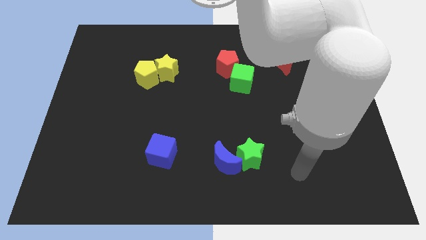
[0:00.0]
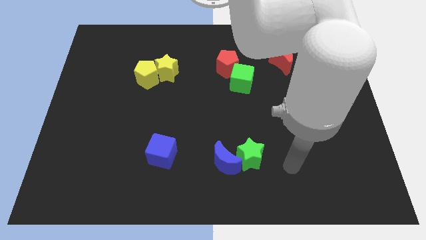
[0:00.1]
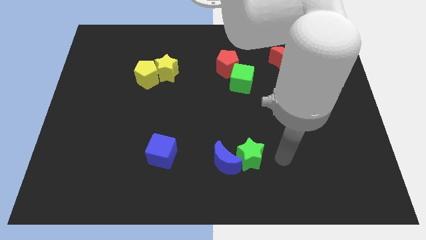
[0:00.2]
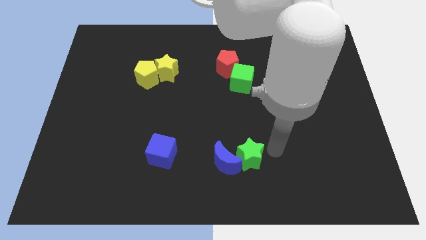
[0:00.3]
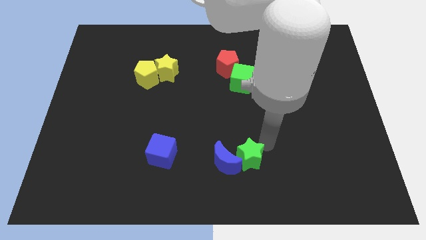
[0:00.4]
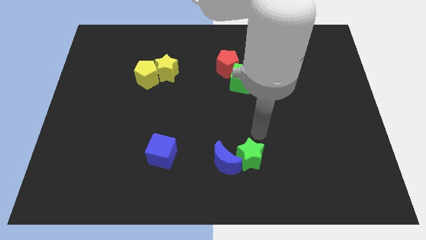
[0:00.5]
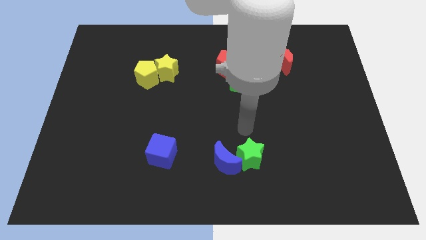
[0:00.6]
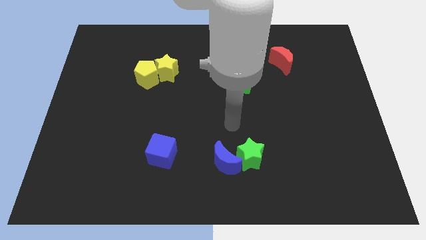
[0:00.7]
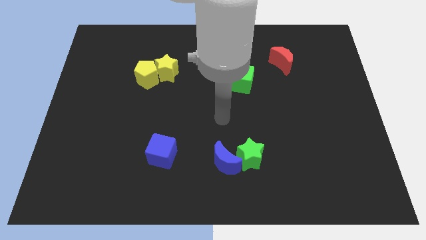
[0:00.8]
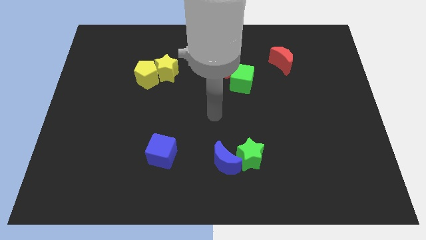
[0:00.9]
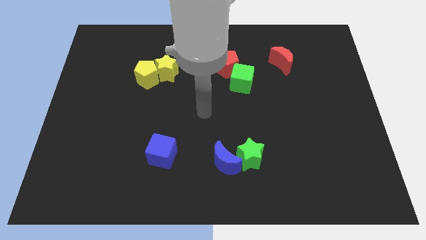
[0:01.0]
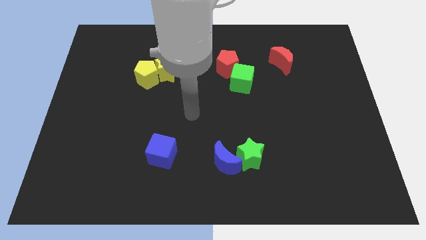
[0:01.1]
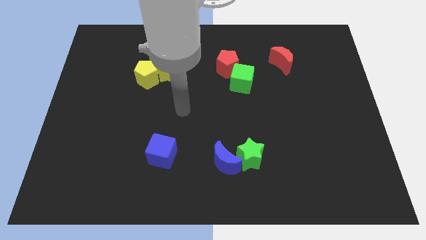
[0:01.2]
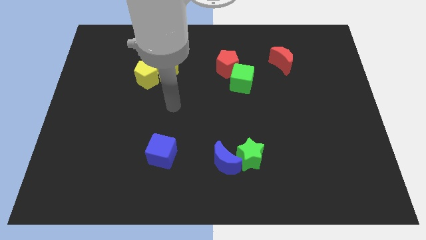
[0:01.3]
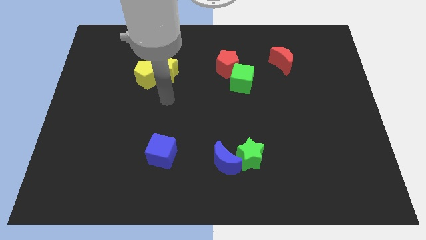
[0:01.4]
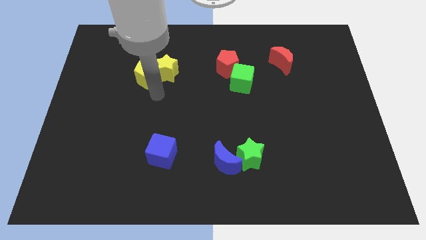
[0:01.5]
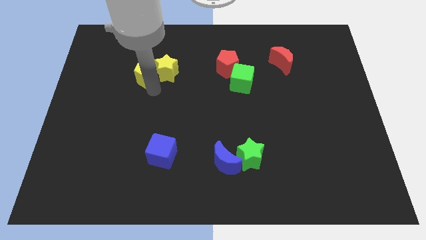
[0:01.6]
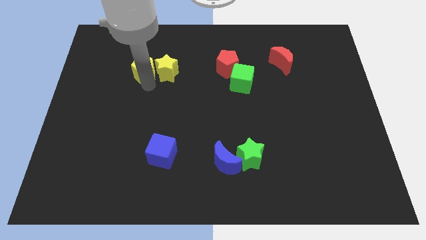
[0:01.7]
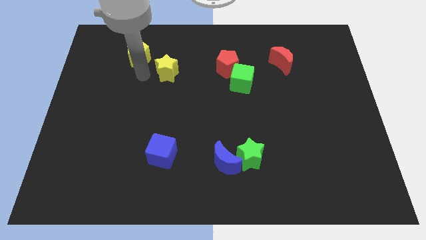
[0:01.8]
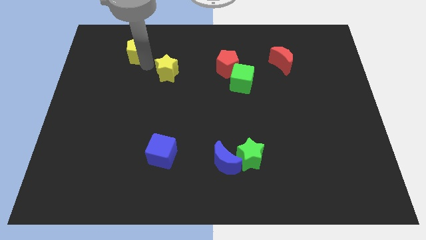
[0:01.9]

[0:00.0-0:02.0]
pull the yellow star apart from the yellow pentagon

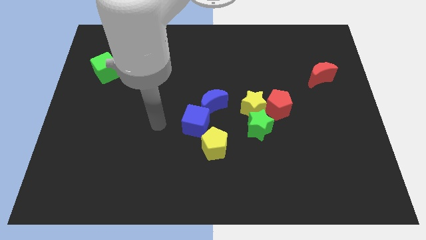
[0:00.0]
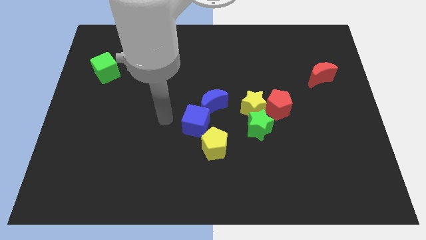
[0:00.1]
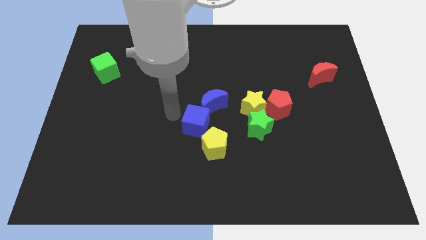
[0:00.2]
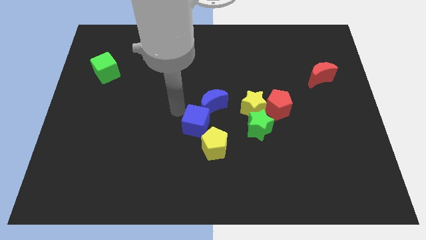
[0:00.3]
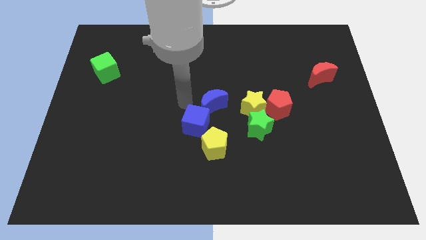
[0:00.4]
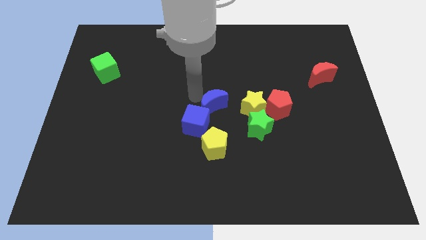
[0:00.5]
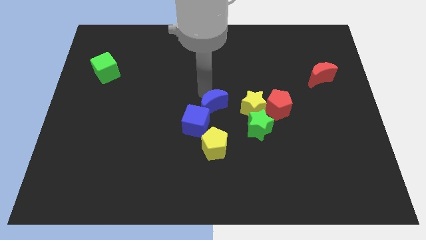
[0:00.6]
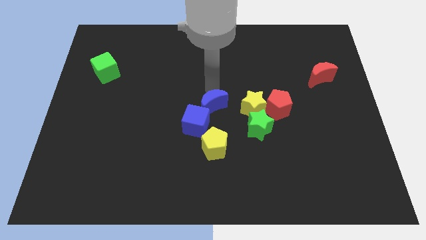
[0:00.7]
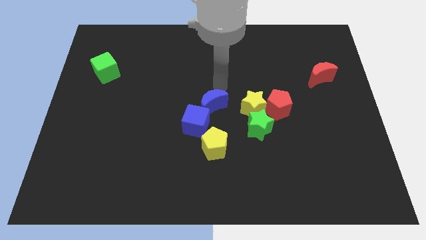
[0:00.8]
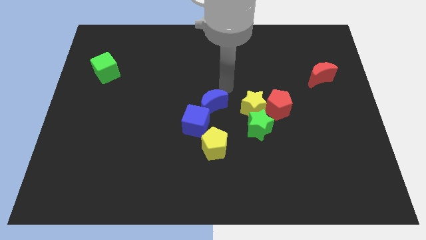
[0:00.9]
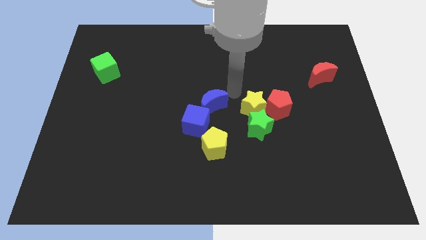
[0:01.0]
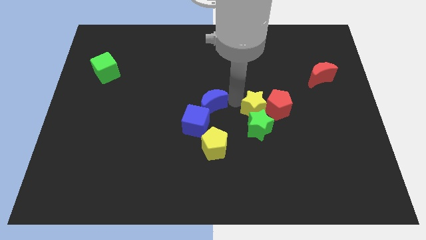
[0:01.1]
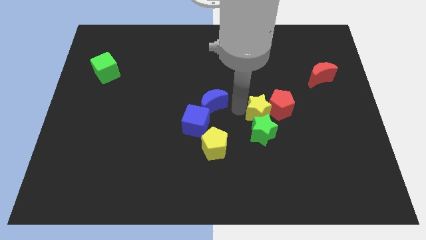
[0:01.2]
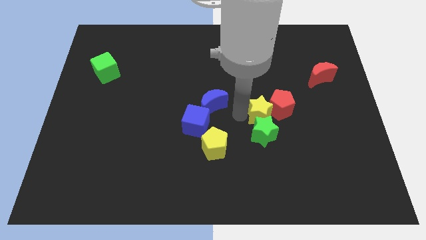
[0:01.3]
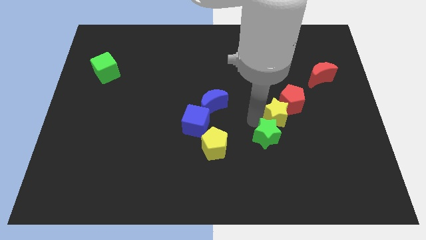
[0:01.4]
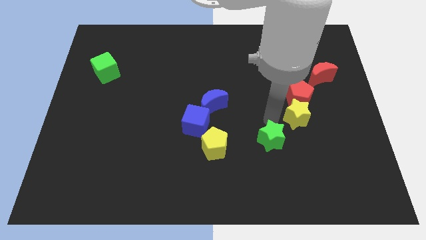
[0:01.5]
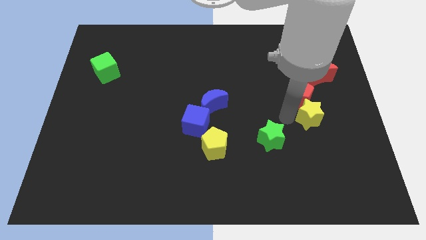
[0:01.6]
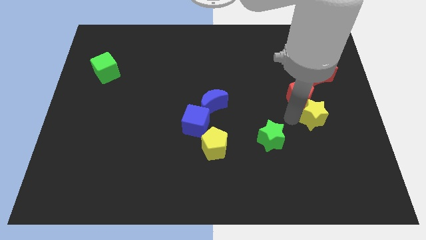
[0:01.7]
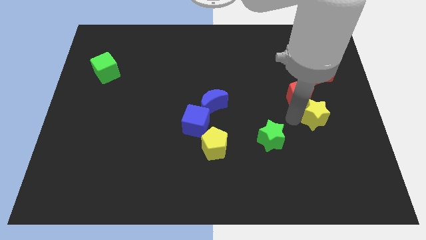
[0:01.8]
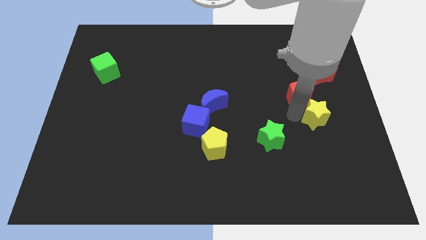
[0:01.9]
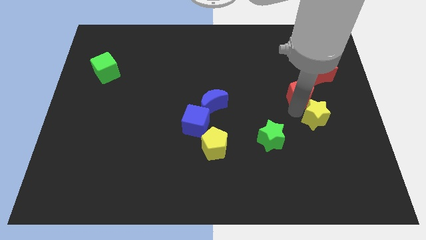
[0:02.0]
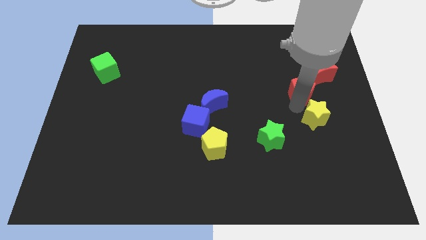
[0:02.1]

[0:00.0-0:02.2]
pull the red pentagon apart from the yellow star and green star

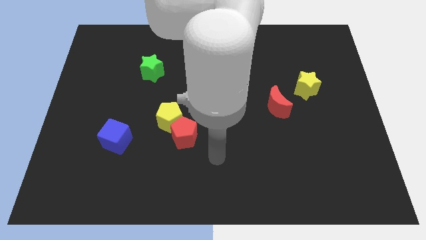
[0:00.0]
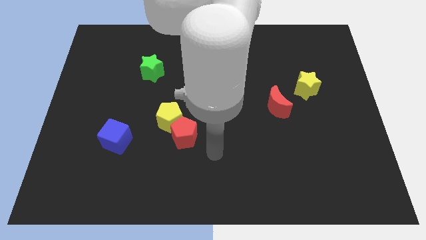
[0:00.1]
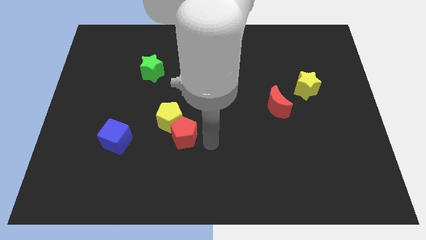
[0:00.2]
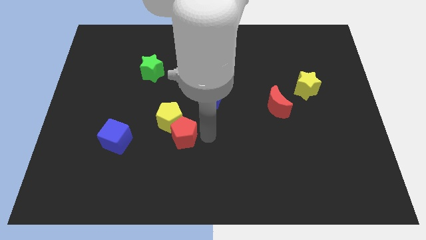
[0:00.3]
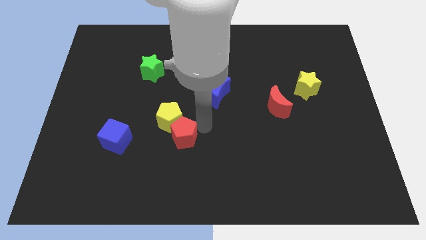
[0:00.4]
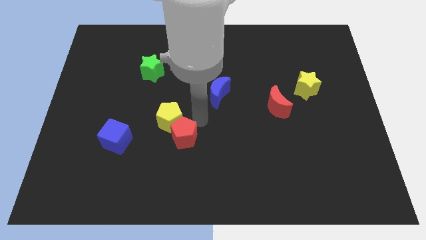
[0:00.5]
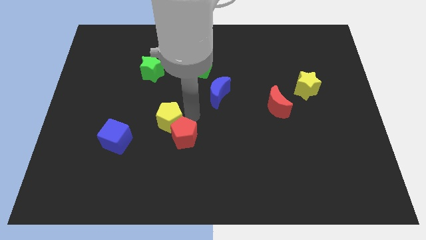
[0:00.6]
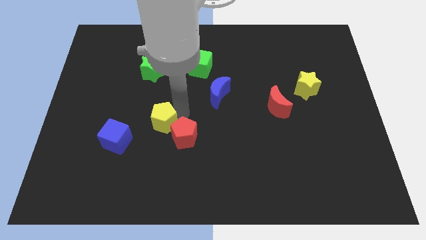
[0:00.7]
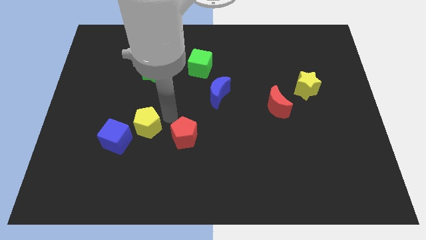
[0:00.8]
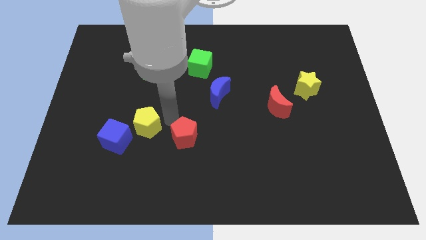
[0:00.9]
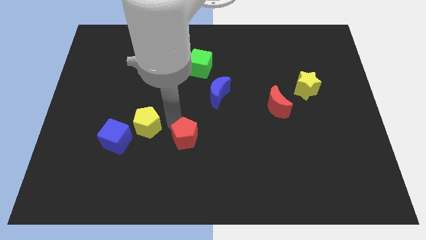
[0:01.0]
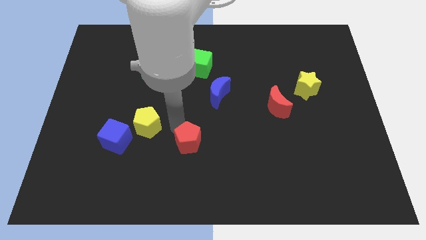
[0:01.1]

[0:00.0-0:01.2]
pull the red pentagon apart from the yellow pentagon

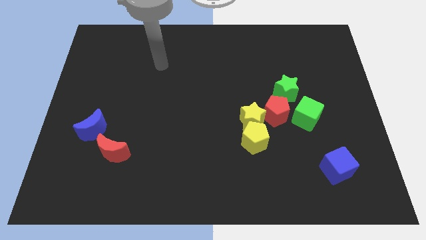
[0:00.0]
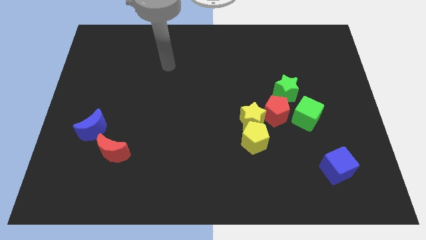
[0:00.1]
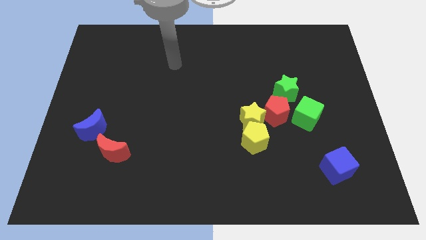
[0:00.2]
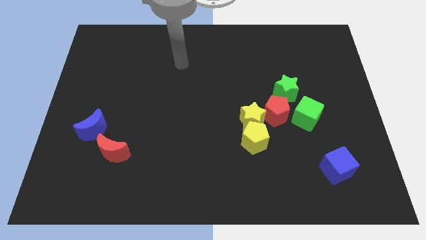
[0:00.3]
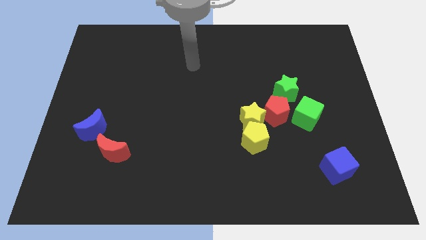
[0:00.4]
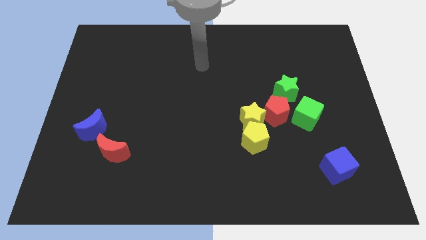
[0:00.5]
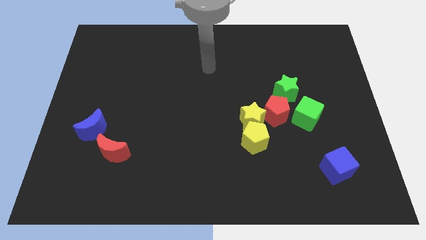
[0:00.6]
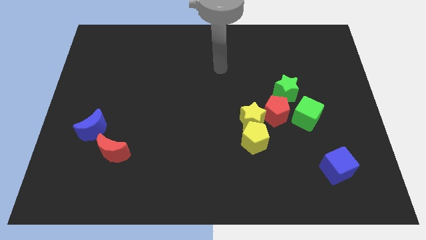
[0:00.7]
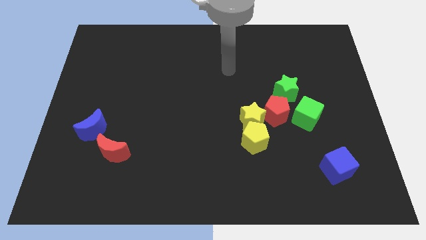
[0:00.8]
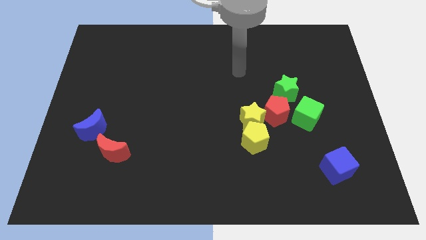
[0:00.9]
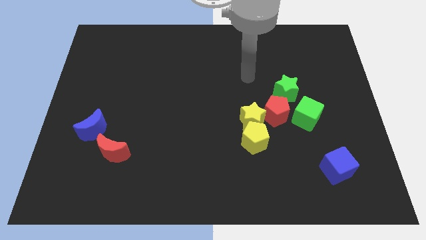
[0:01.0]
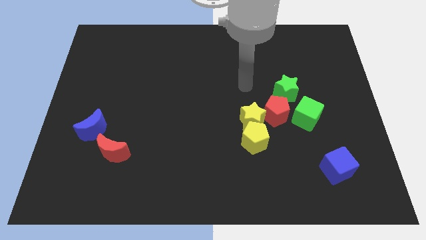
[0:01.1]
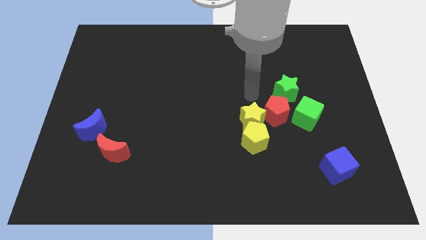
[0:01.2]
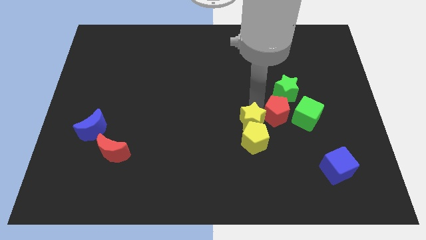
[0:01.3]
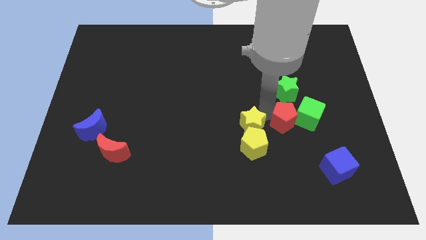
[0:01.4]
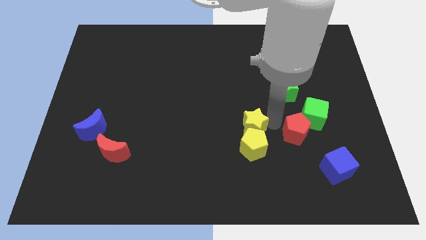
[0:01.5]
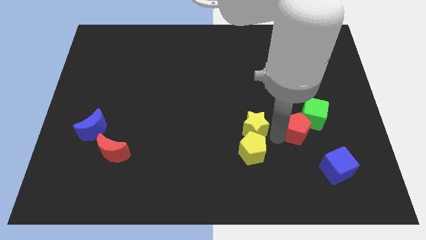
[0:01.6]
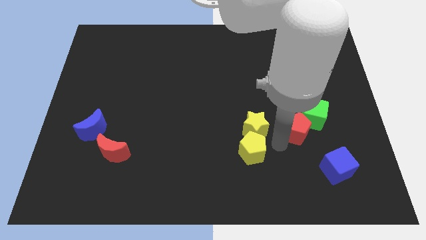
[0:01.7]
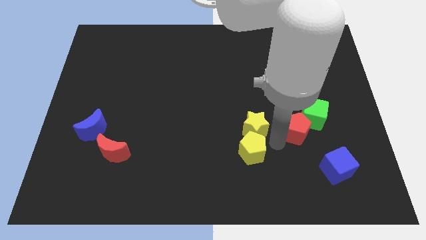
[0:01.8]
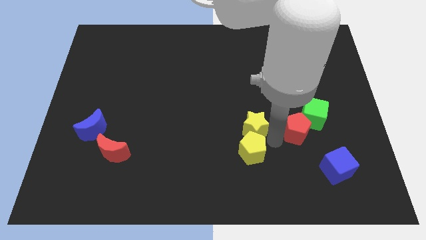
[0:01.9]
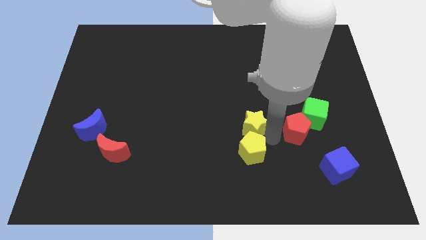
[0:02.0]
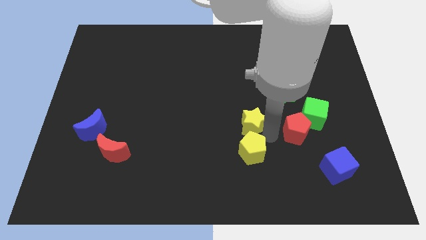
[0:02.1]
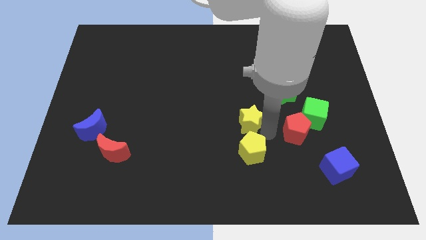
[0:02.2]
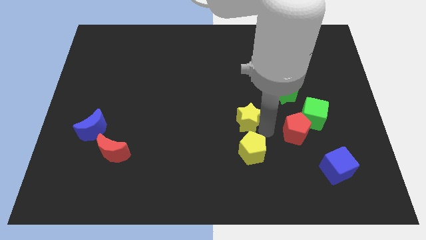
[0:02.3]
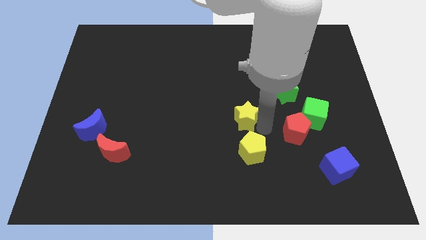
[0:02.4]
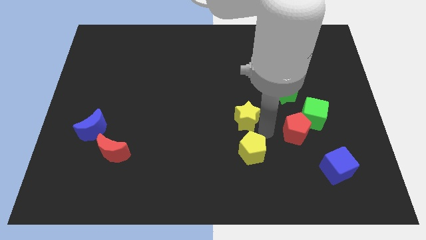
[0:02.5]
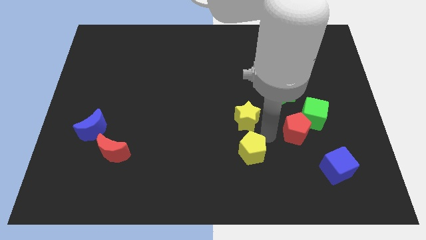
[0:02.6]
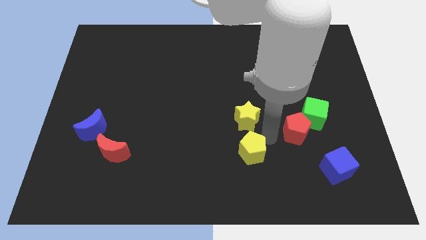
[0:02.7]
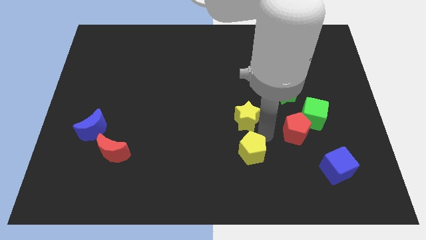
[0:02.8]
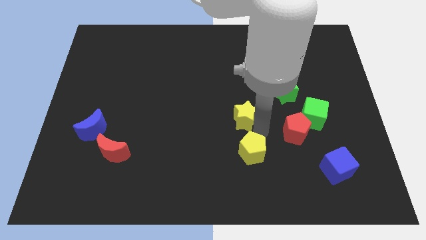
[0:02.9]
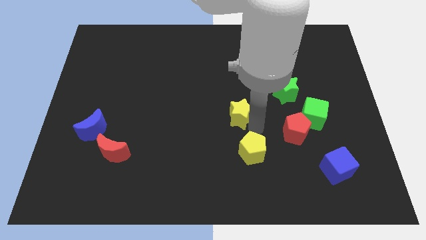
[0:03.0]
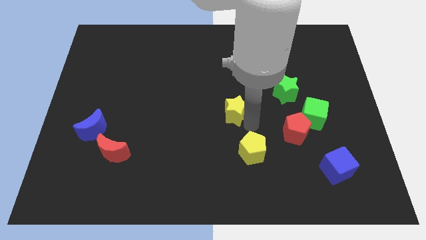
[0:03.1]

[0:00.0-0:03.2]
separate the yellow star from the yellow pentagon and red pentagon

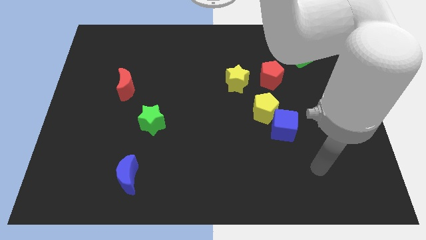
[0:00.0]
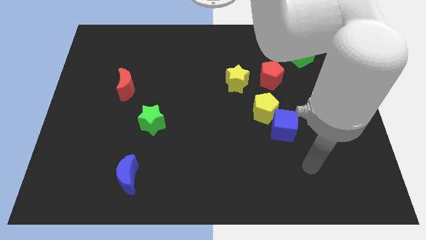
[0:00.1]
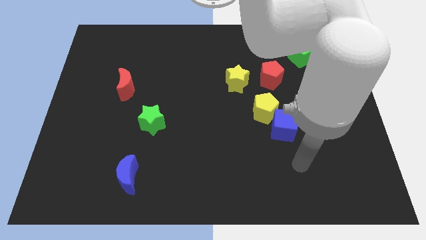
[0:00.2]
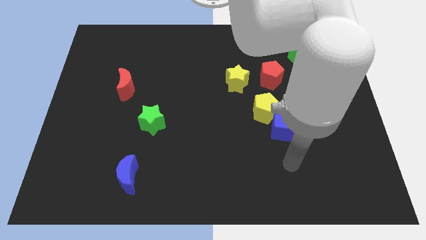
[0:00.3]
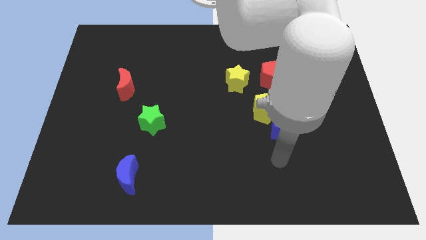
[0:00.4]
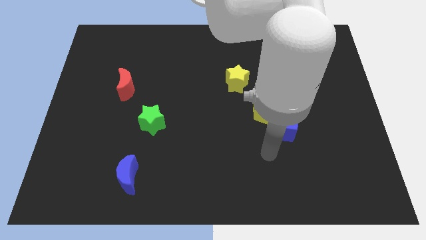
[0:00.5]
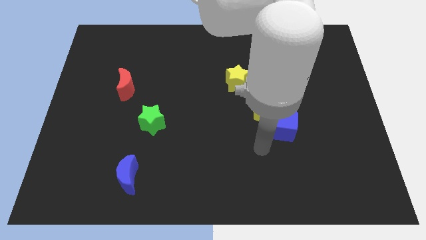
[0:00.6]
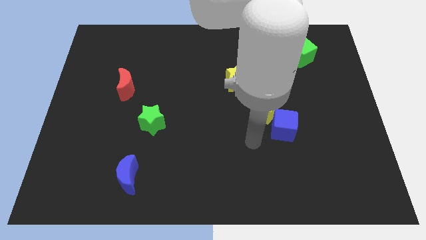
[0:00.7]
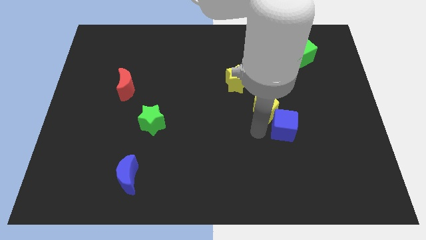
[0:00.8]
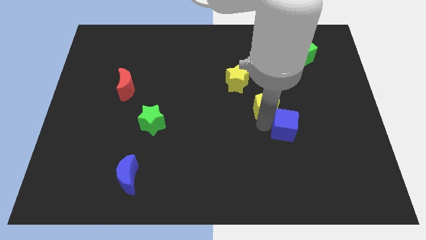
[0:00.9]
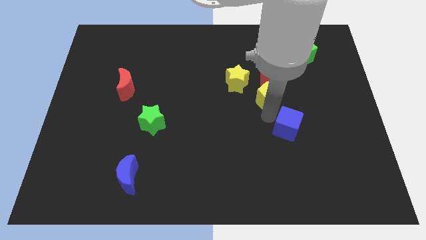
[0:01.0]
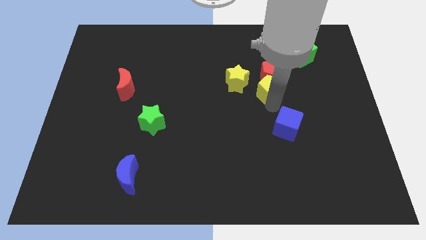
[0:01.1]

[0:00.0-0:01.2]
move the blue cube away from the yellow pentagon